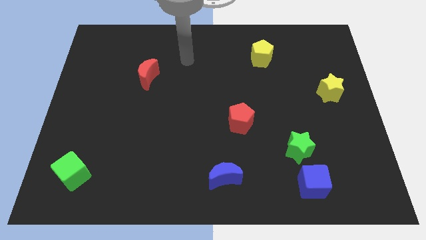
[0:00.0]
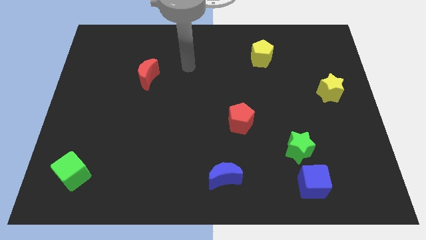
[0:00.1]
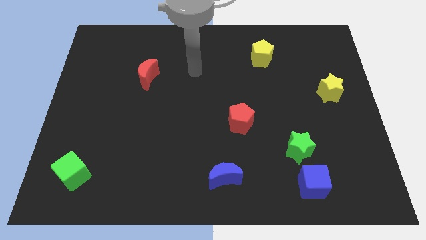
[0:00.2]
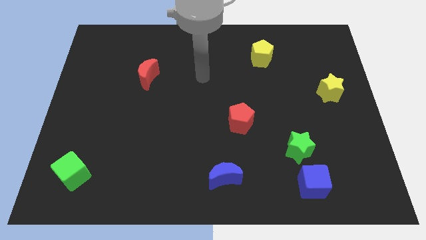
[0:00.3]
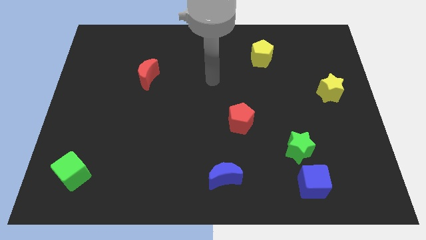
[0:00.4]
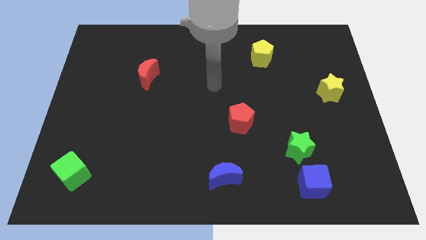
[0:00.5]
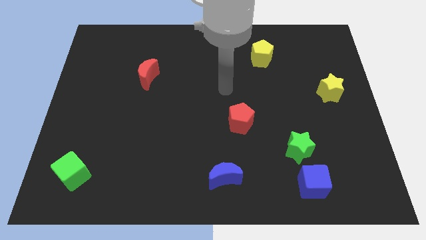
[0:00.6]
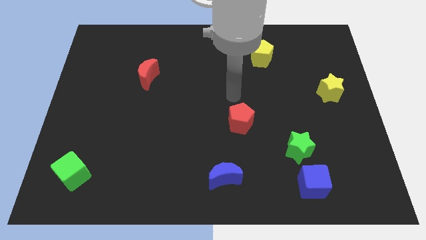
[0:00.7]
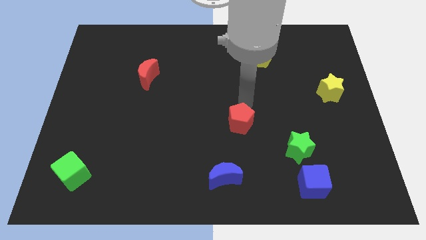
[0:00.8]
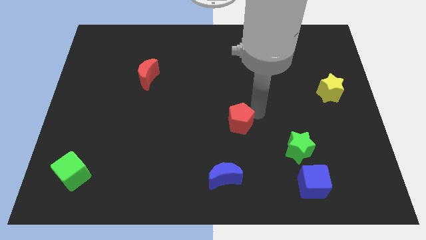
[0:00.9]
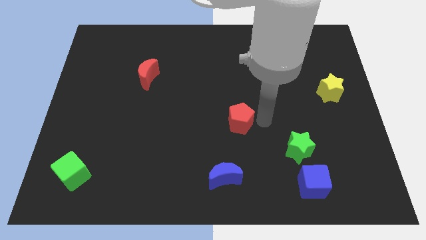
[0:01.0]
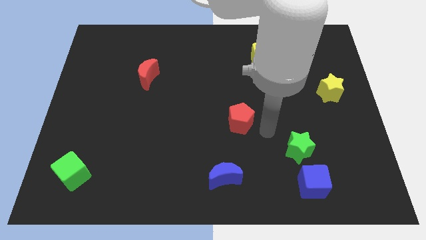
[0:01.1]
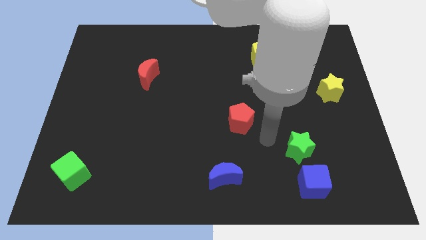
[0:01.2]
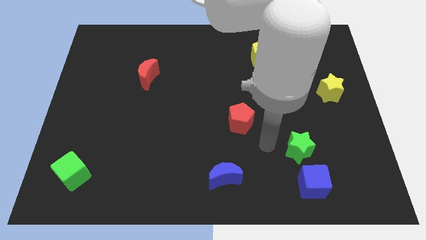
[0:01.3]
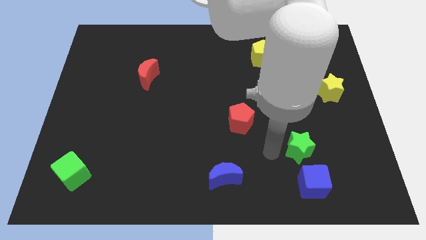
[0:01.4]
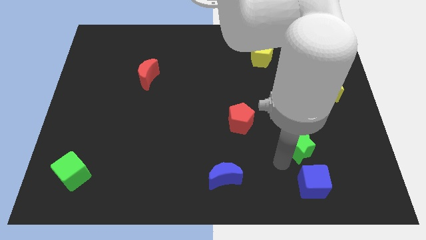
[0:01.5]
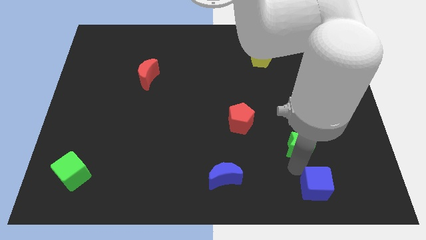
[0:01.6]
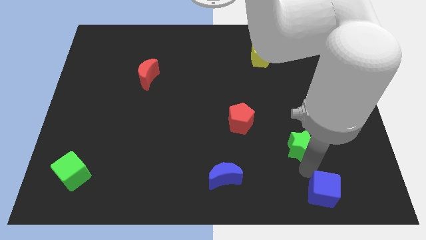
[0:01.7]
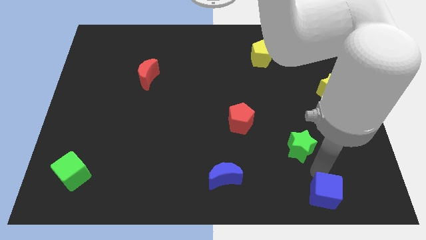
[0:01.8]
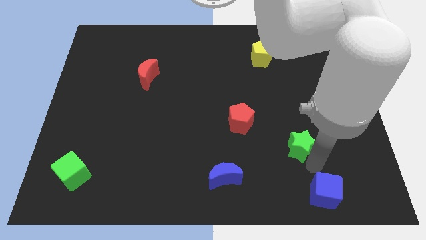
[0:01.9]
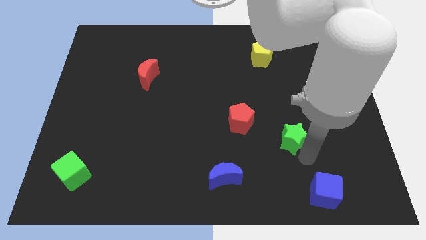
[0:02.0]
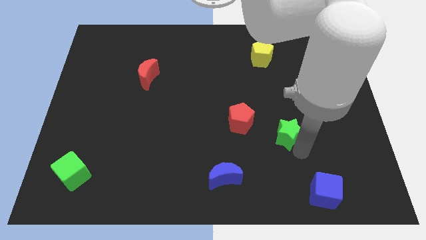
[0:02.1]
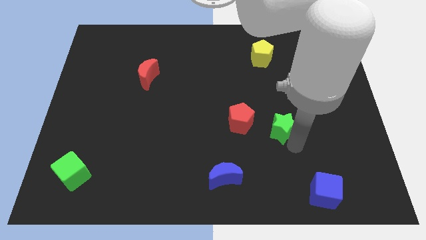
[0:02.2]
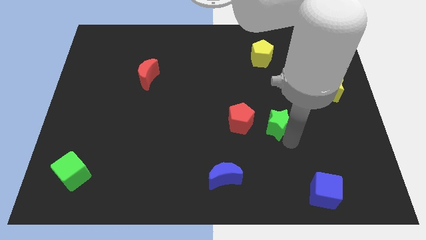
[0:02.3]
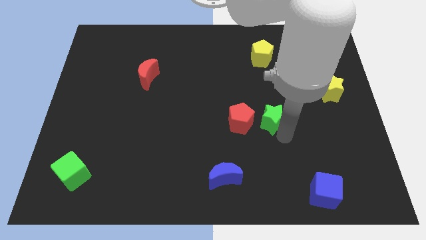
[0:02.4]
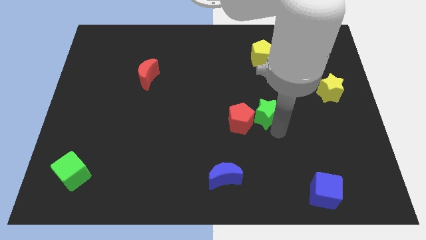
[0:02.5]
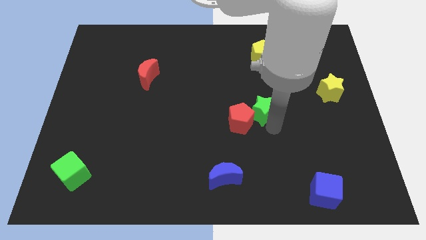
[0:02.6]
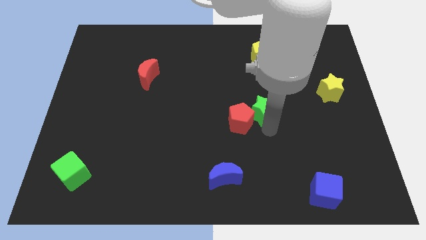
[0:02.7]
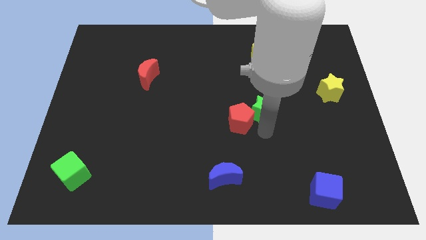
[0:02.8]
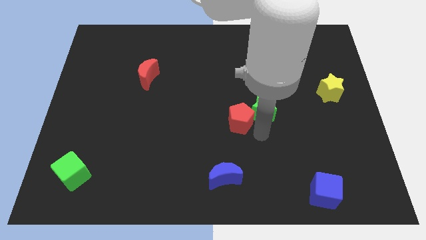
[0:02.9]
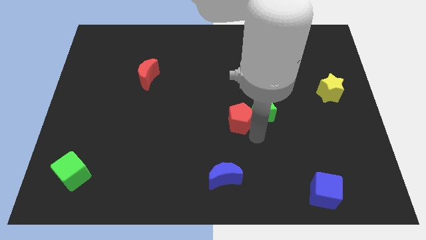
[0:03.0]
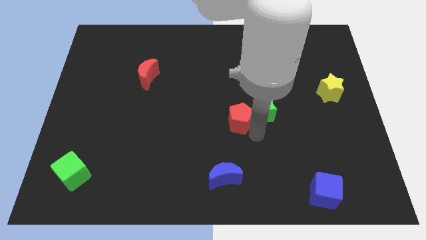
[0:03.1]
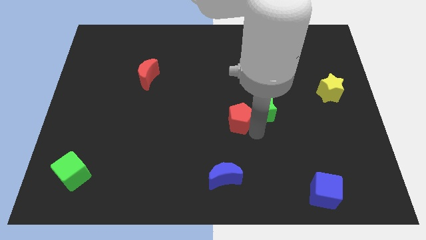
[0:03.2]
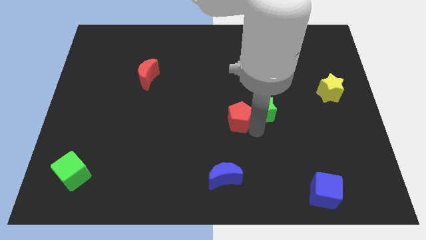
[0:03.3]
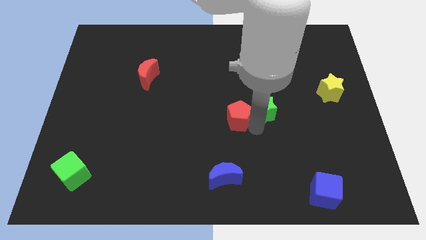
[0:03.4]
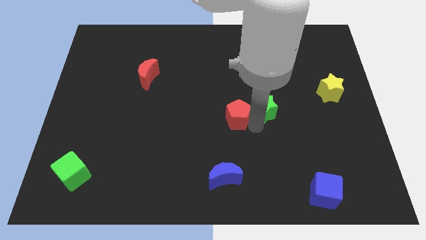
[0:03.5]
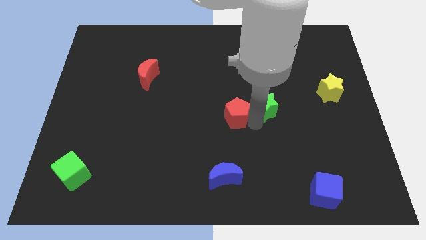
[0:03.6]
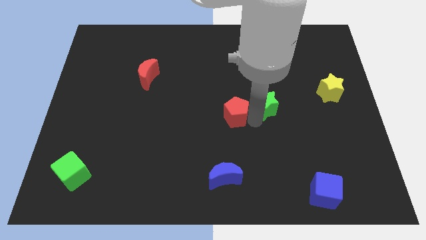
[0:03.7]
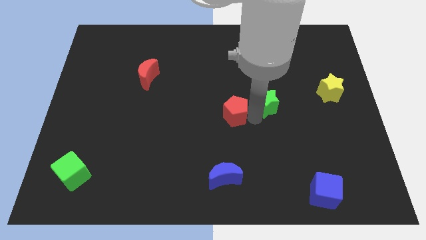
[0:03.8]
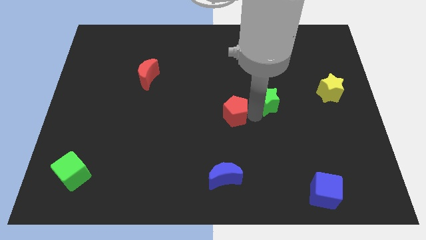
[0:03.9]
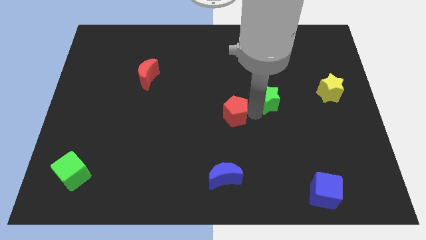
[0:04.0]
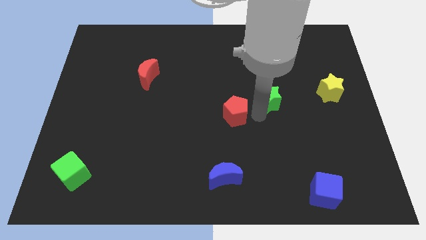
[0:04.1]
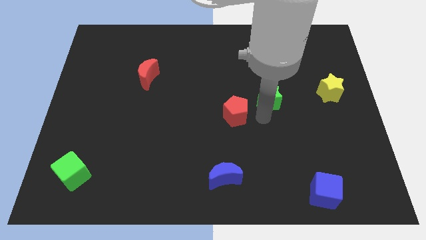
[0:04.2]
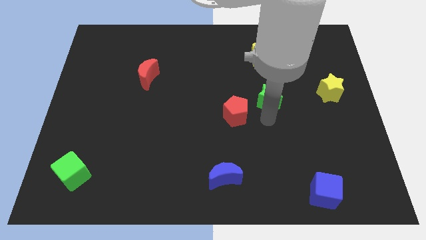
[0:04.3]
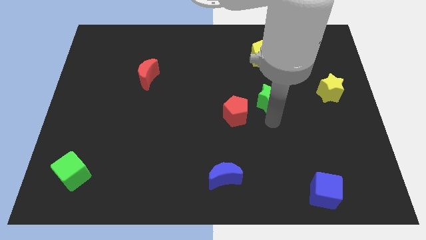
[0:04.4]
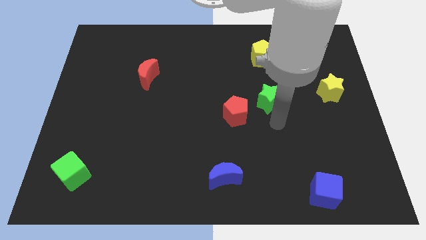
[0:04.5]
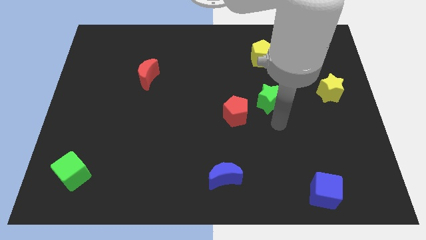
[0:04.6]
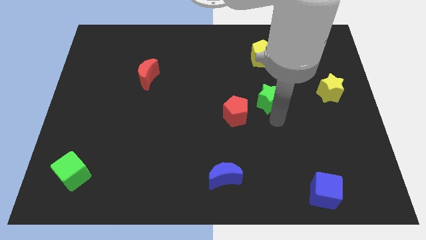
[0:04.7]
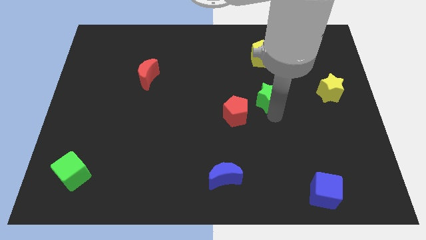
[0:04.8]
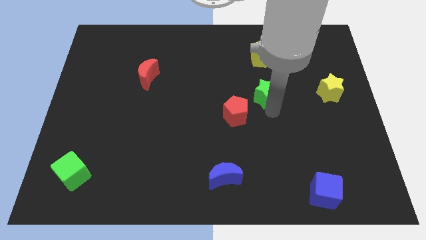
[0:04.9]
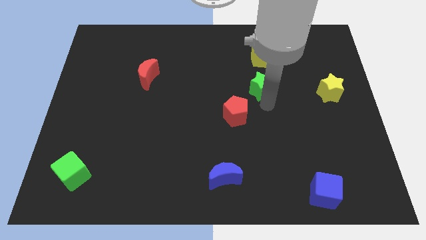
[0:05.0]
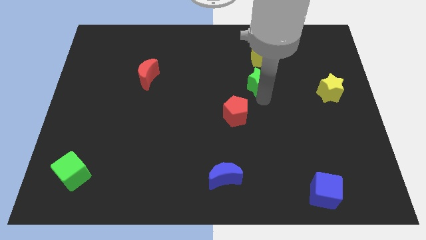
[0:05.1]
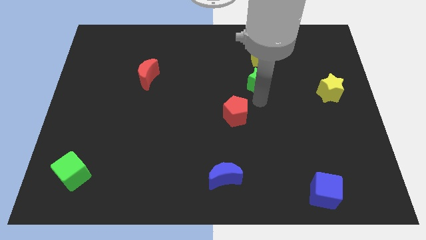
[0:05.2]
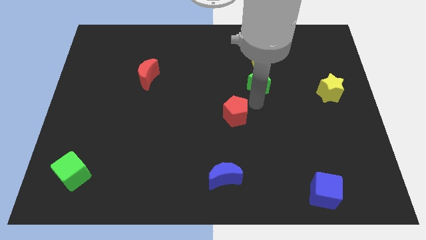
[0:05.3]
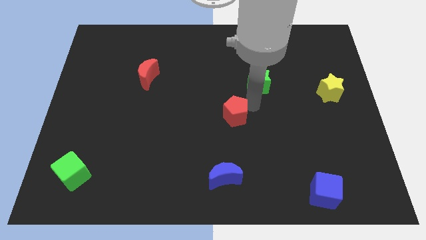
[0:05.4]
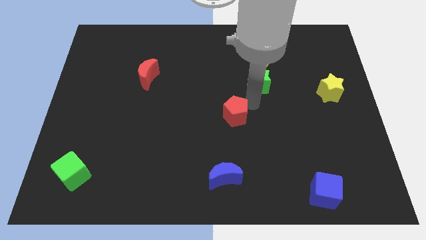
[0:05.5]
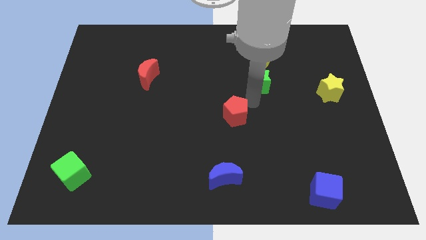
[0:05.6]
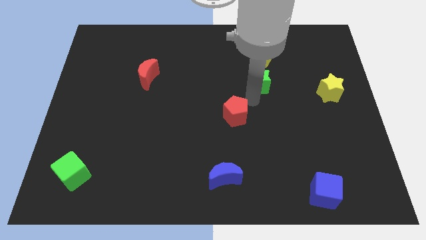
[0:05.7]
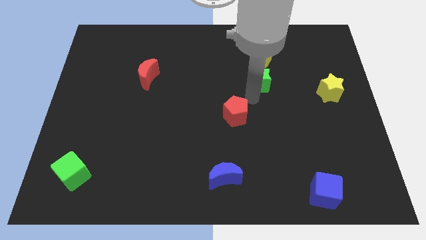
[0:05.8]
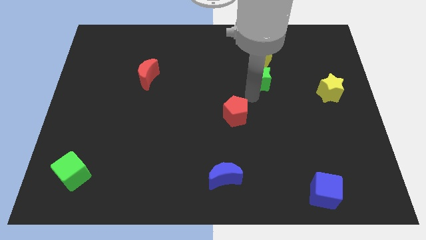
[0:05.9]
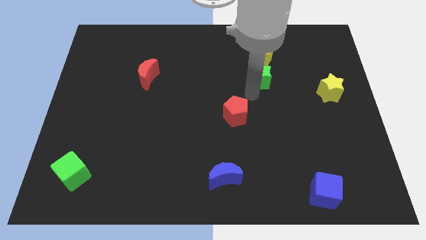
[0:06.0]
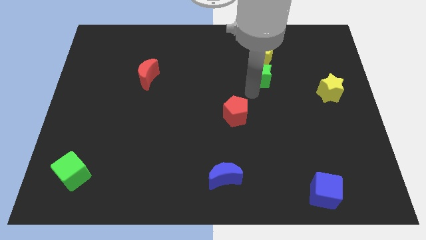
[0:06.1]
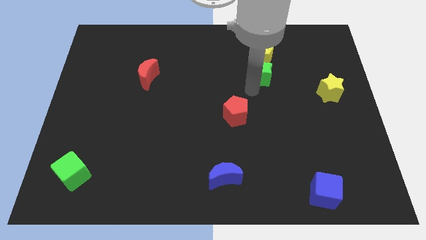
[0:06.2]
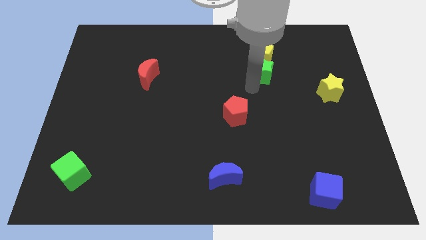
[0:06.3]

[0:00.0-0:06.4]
slide the green star close to the yellow pentagon

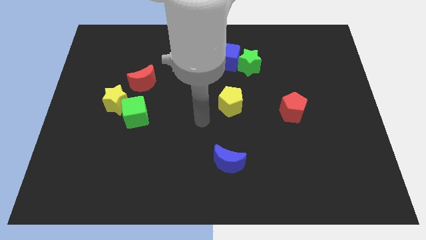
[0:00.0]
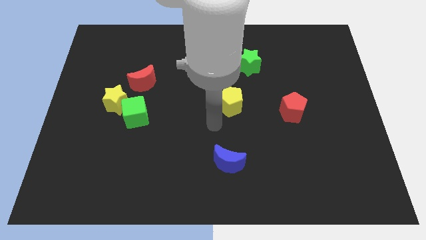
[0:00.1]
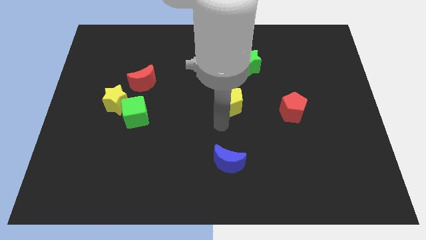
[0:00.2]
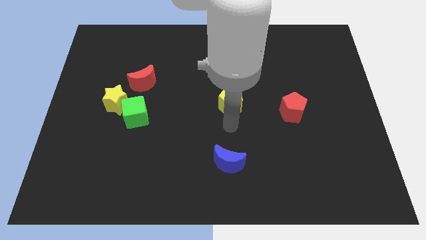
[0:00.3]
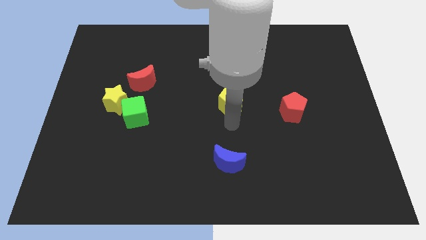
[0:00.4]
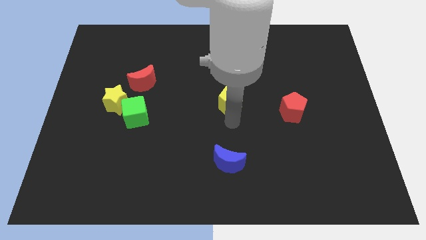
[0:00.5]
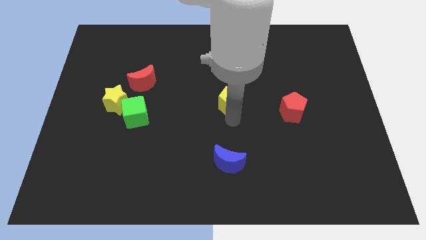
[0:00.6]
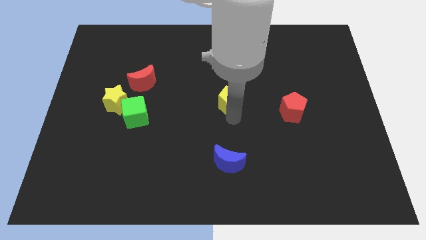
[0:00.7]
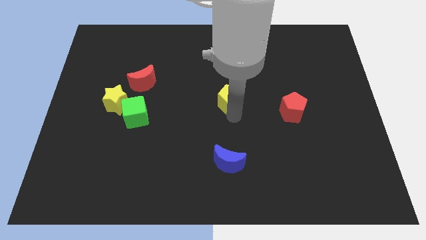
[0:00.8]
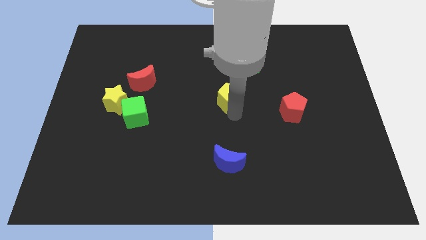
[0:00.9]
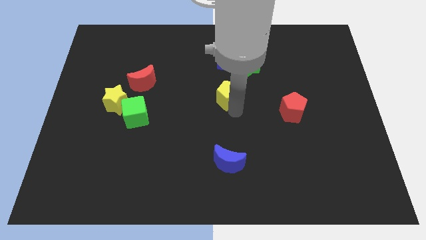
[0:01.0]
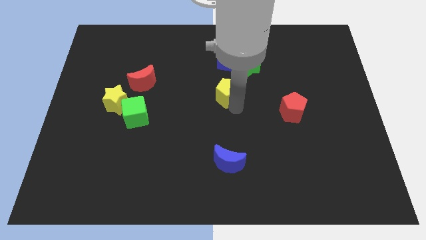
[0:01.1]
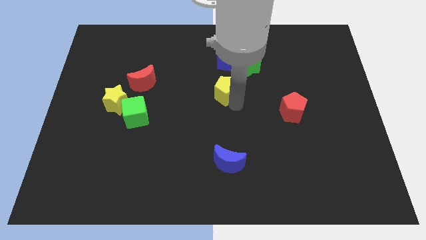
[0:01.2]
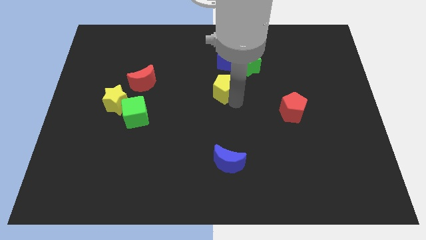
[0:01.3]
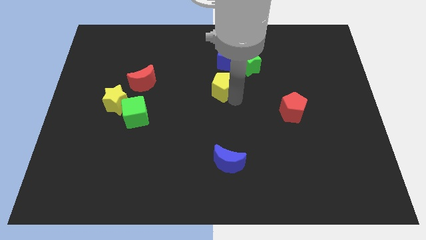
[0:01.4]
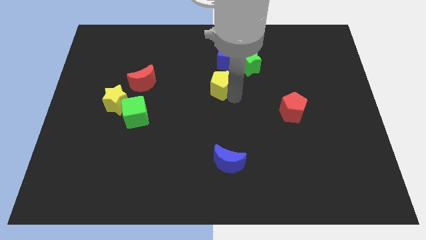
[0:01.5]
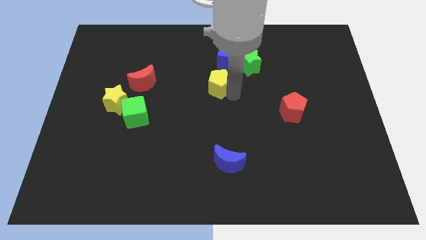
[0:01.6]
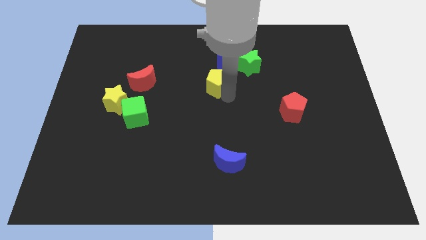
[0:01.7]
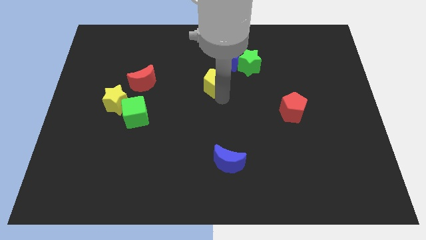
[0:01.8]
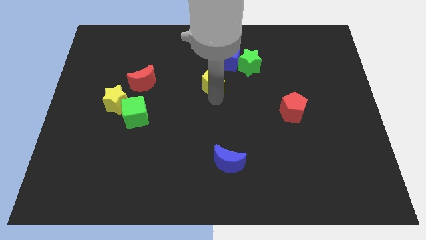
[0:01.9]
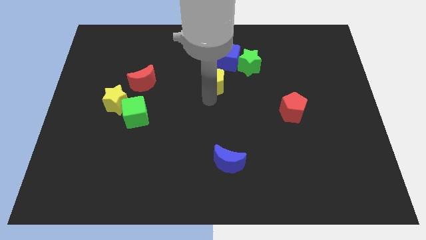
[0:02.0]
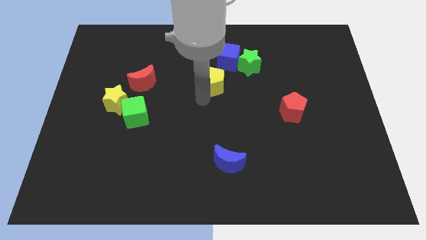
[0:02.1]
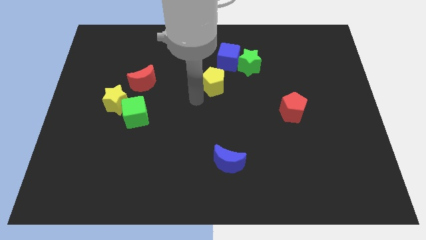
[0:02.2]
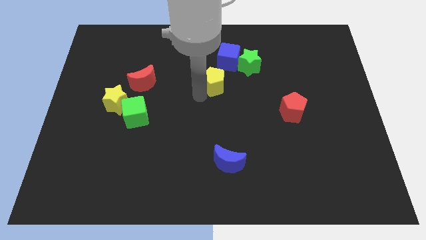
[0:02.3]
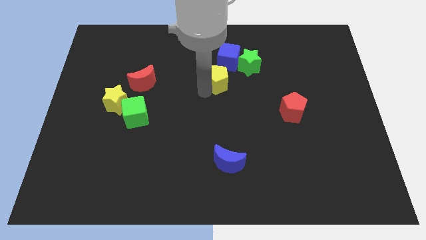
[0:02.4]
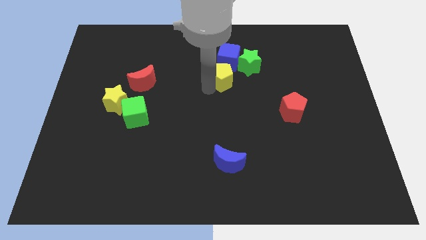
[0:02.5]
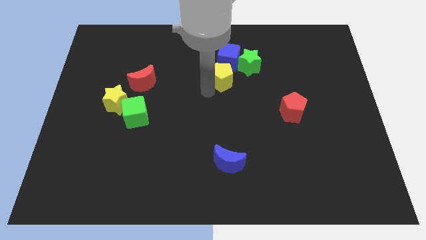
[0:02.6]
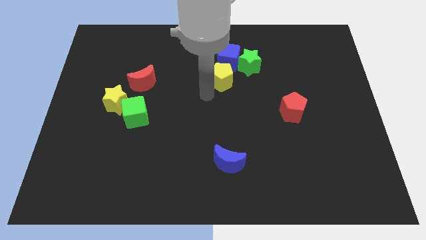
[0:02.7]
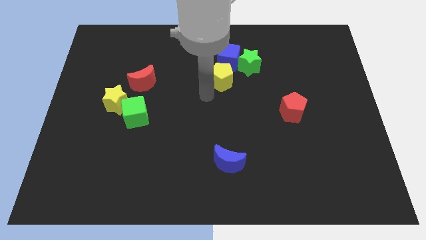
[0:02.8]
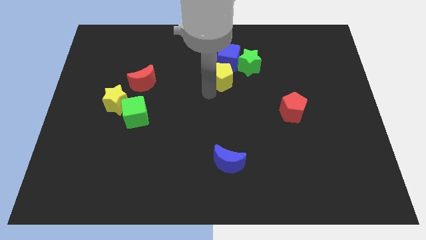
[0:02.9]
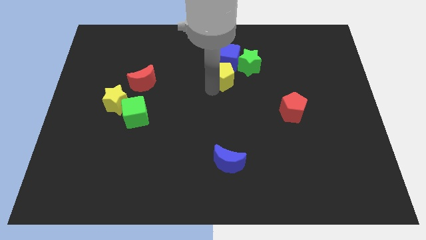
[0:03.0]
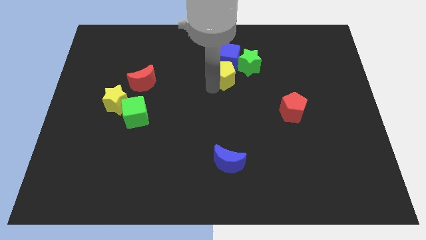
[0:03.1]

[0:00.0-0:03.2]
slide the yellow pentagon next to the blue cube
